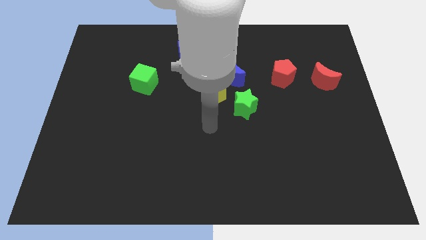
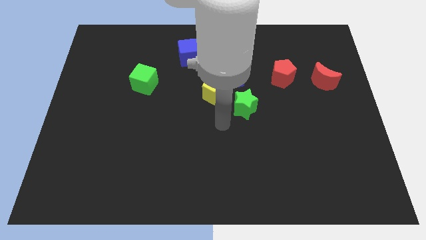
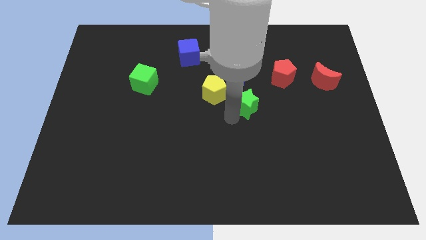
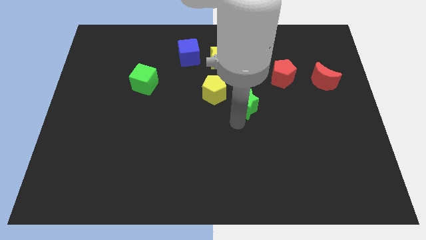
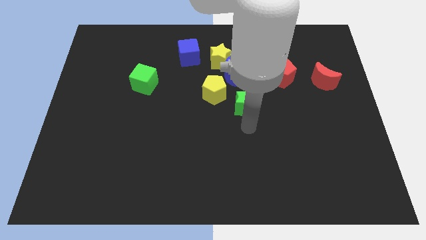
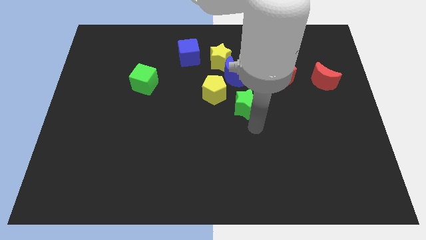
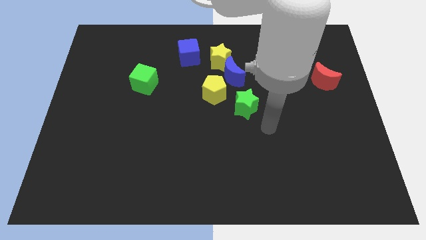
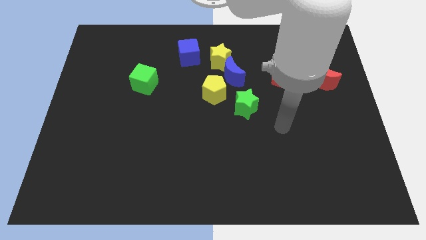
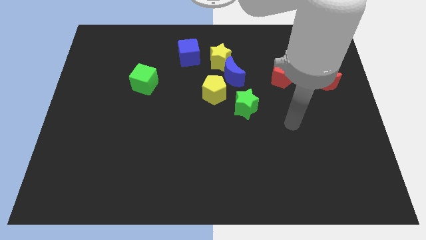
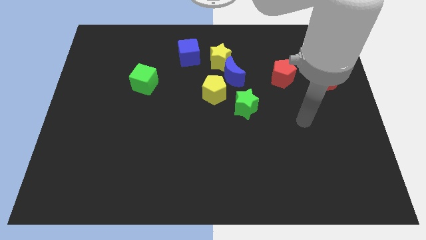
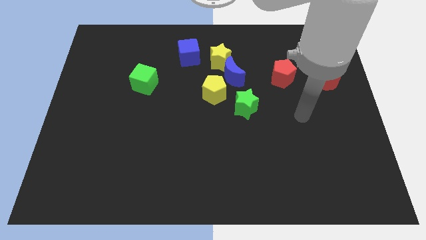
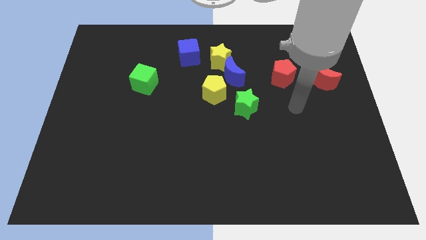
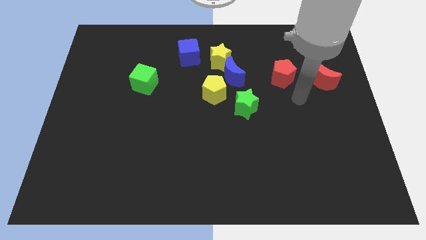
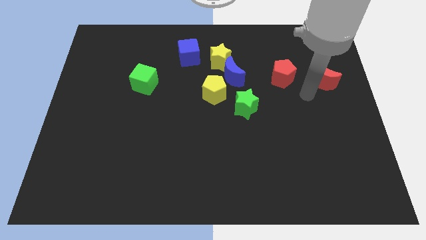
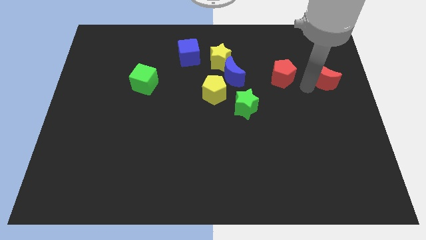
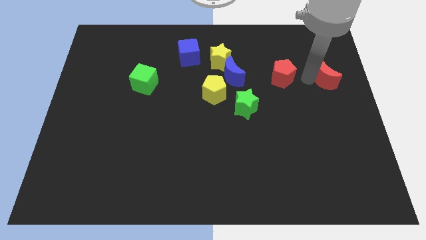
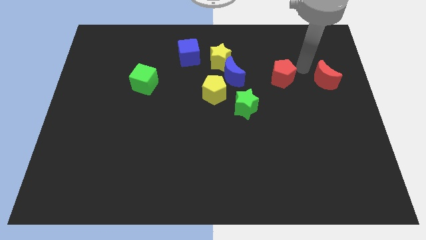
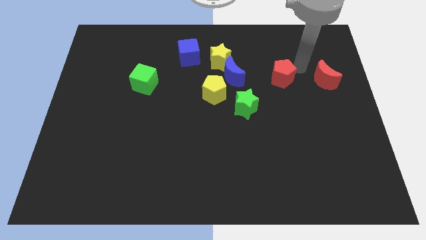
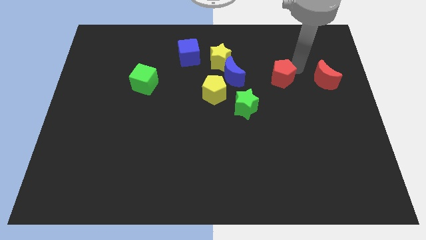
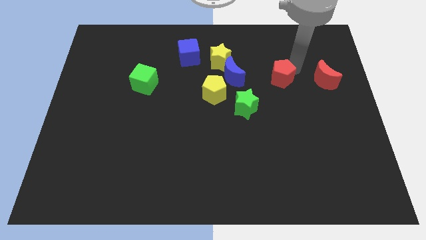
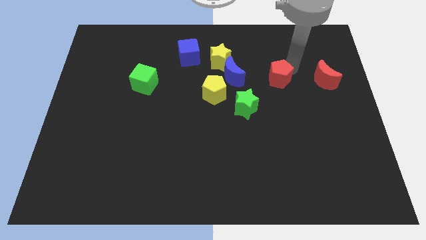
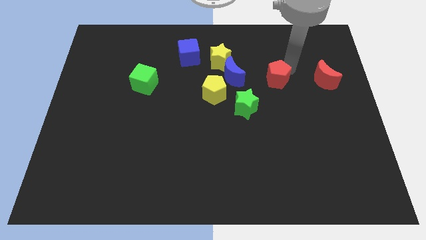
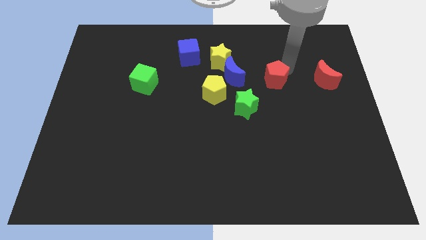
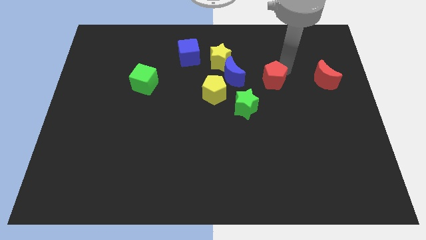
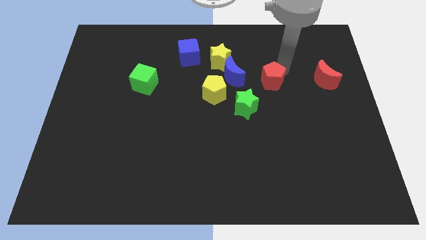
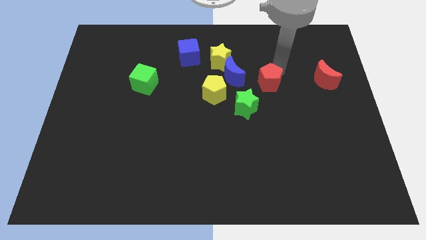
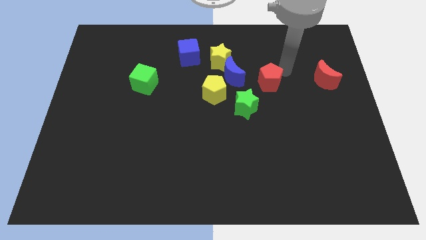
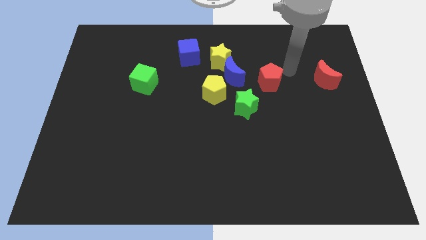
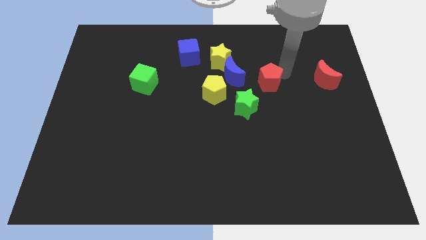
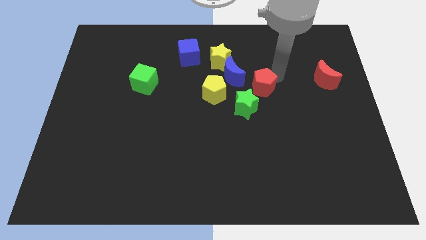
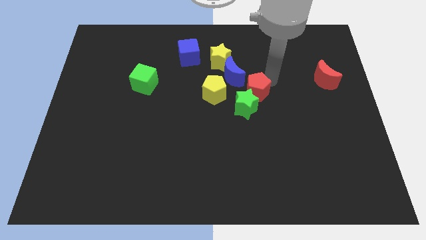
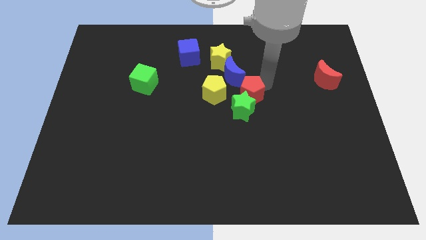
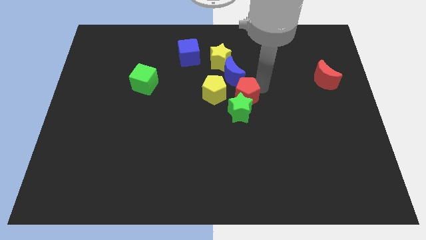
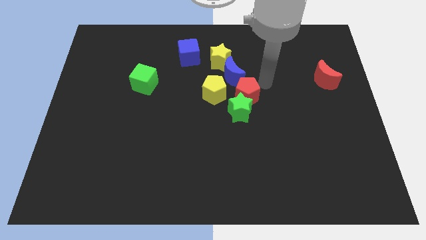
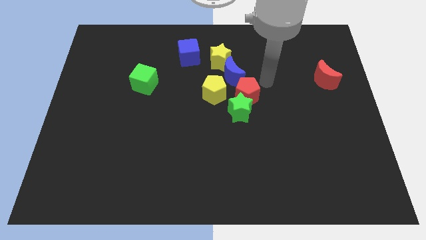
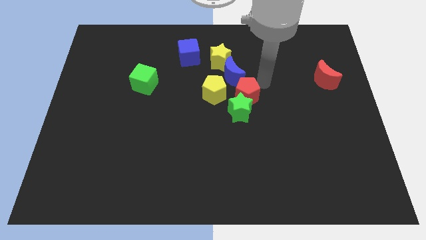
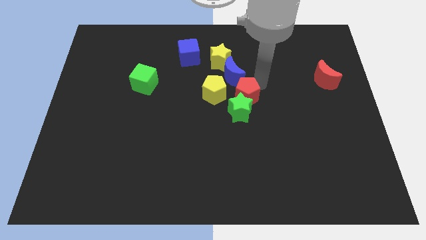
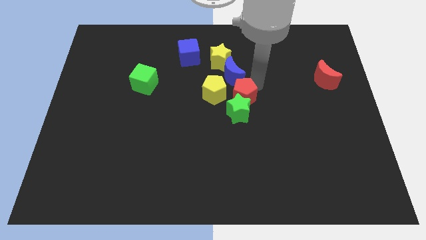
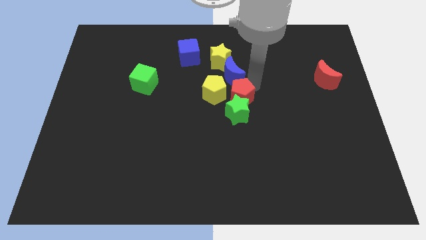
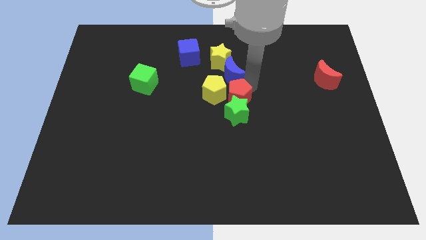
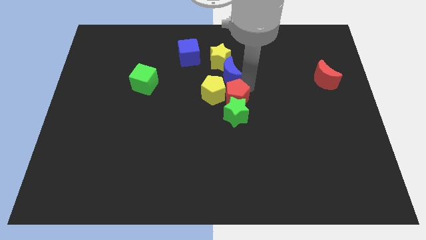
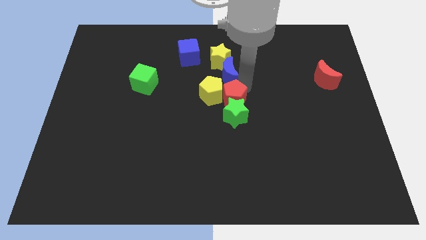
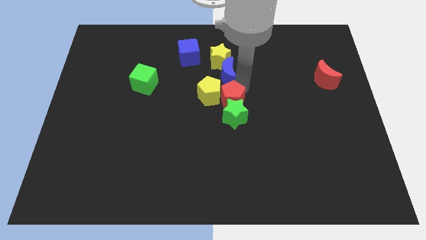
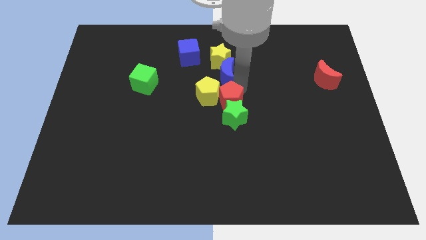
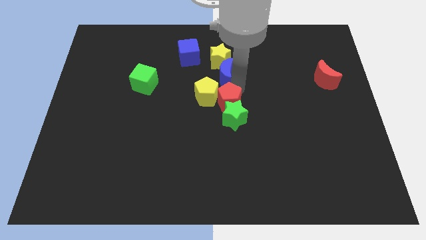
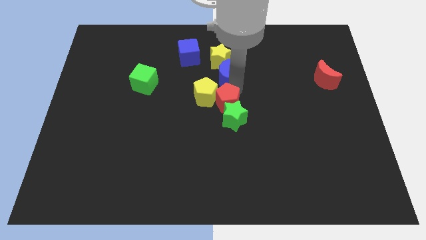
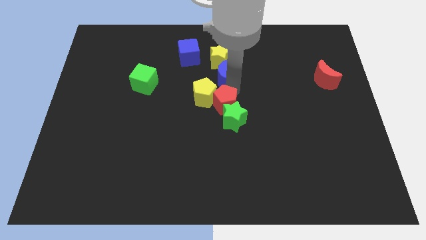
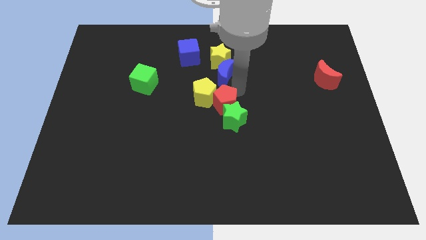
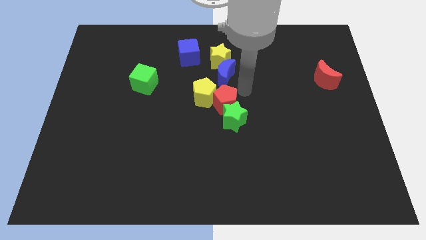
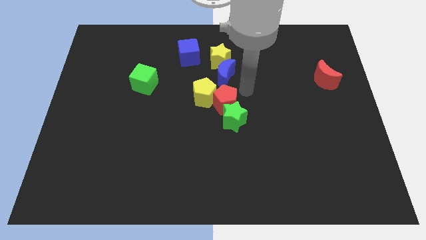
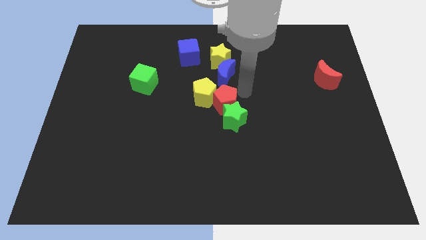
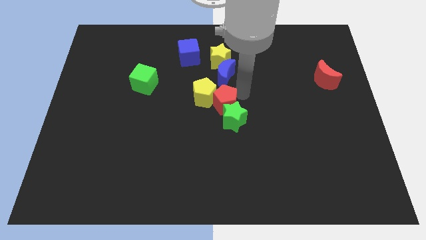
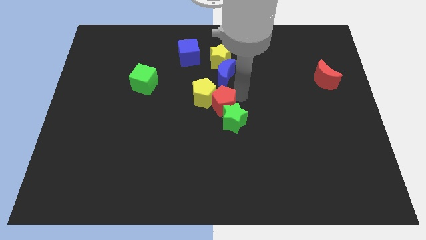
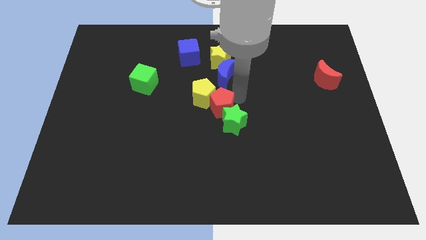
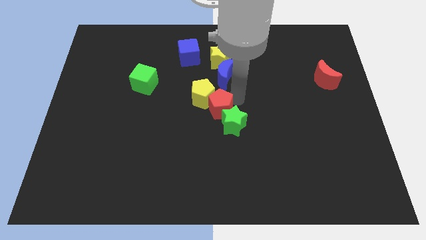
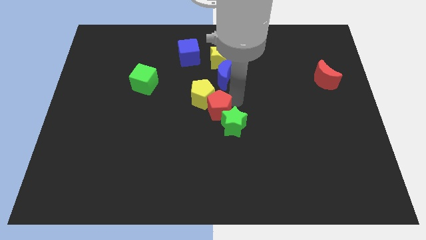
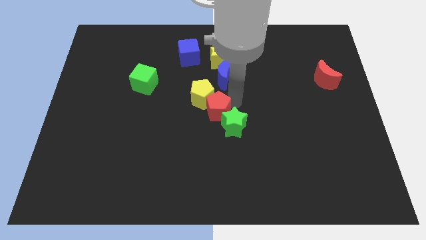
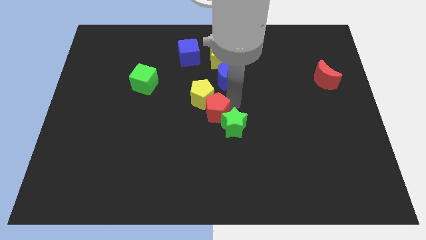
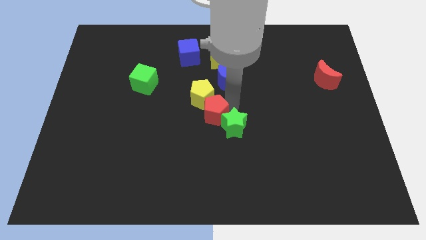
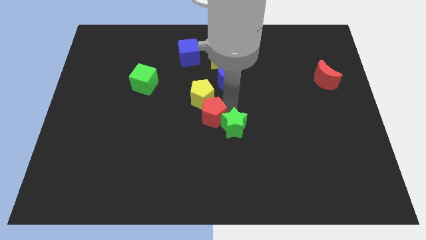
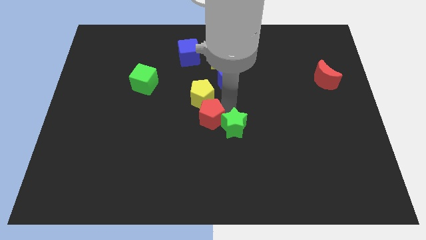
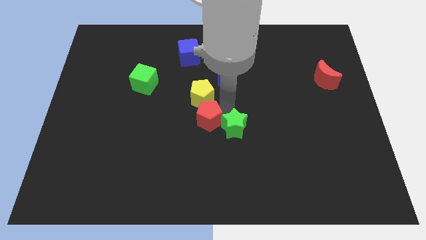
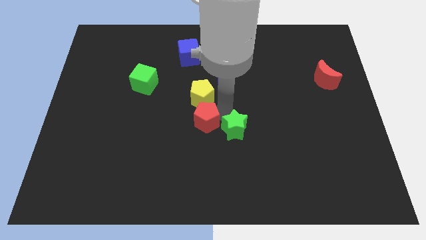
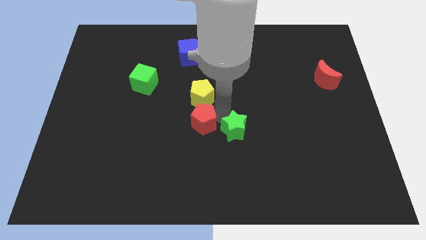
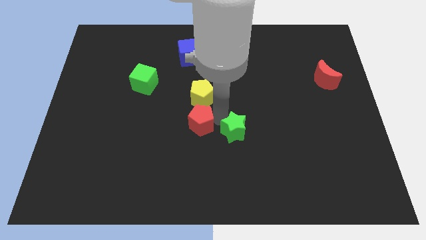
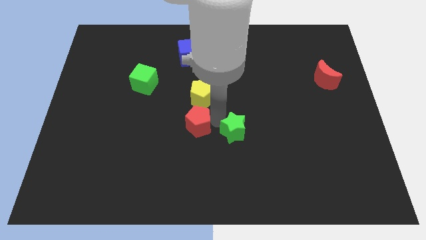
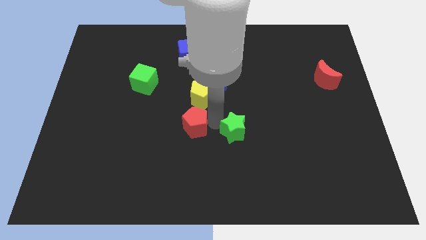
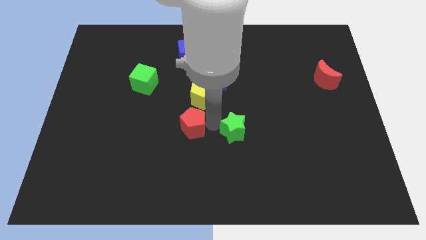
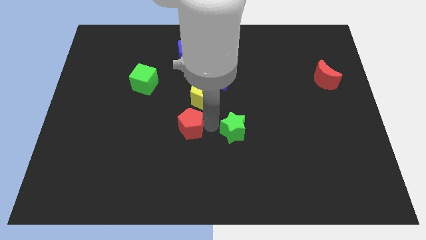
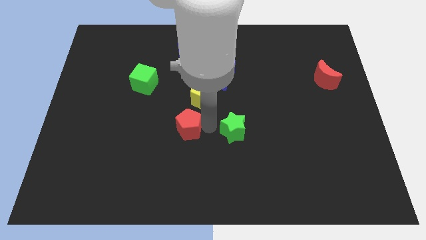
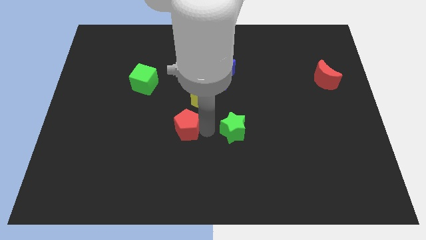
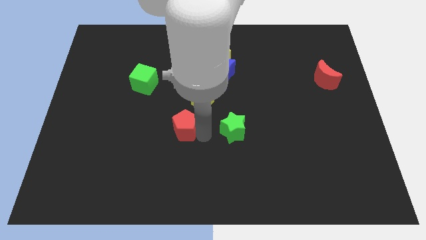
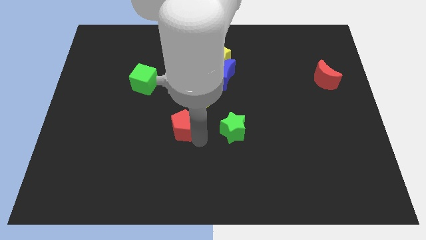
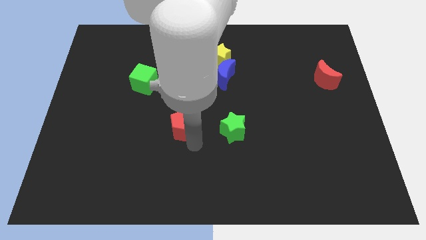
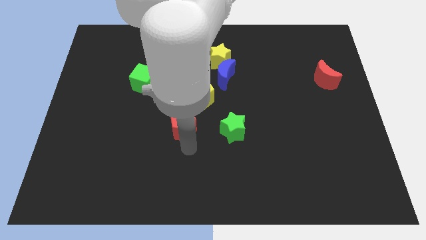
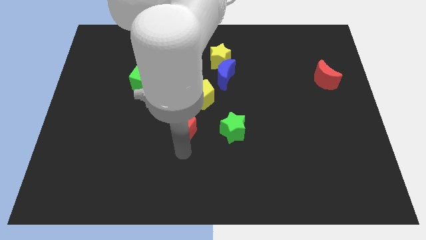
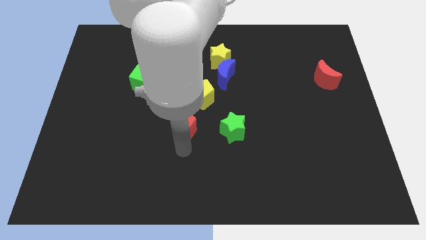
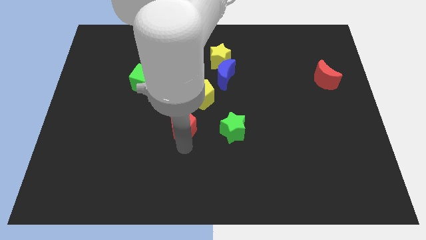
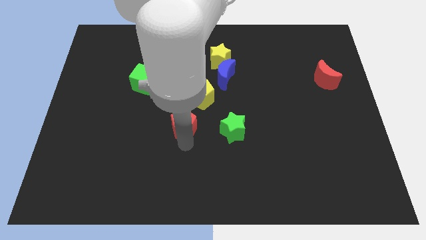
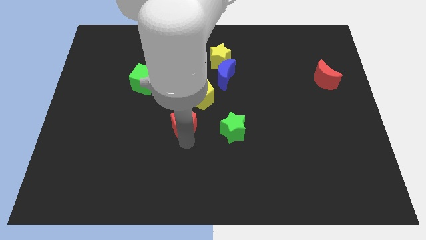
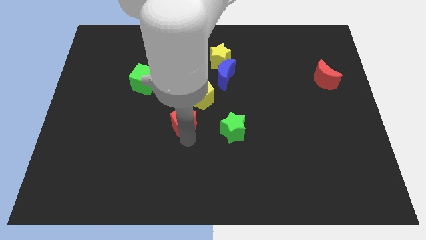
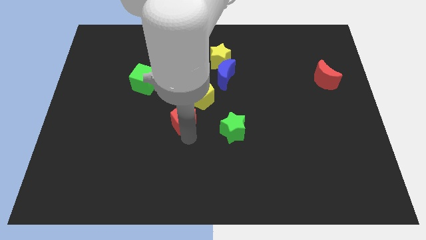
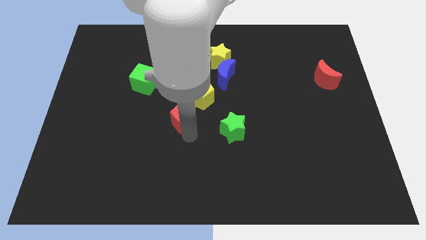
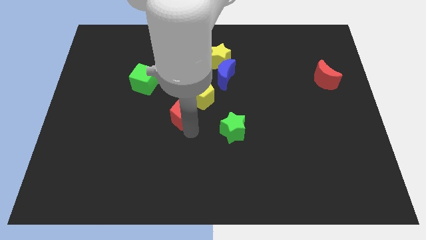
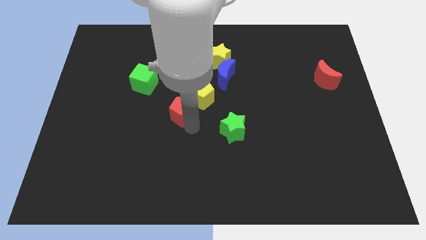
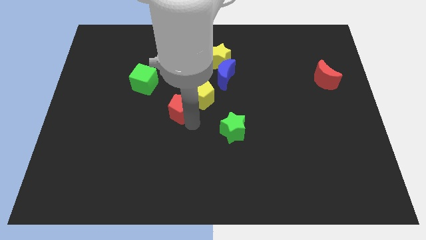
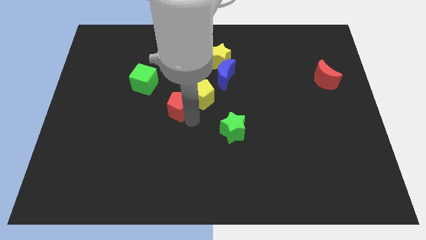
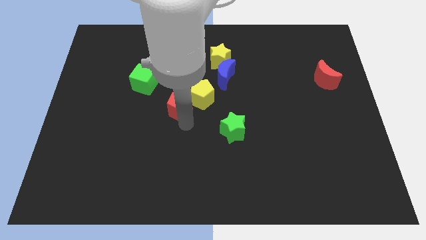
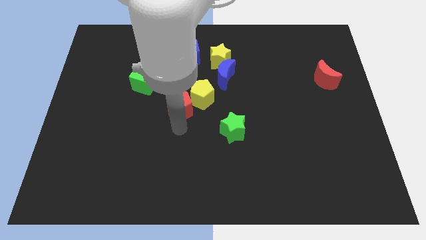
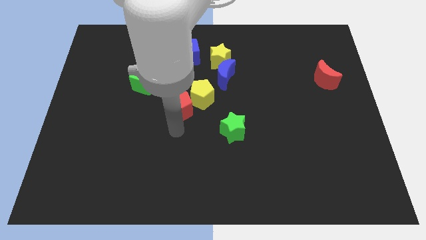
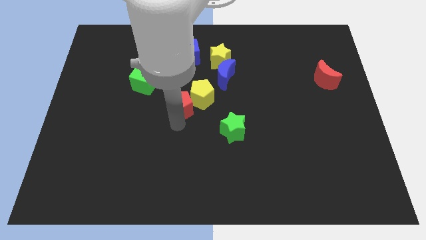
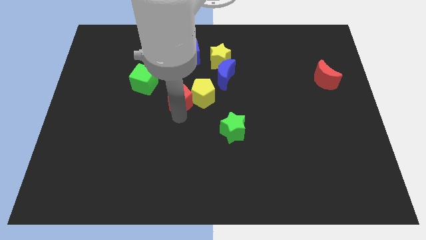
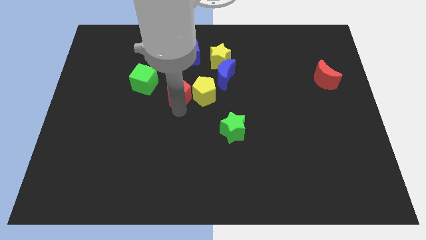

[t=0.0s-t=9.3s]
slide the red pentagon just right of the green cube
